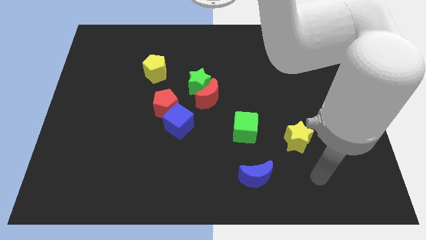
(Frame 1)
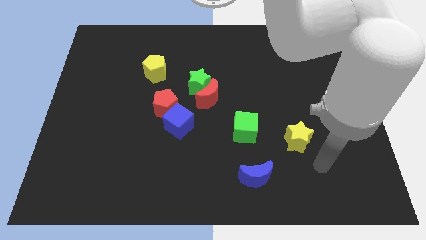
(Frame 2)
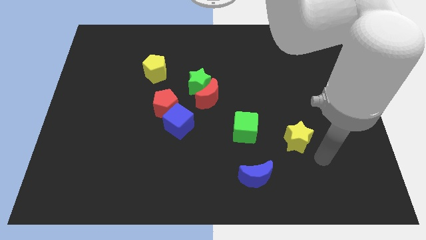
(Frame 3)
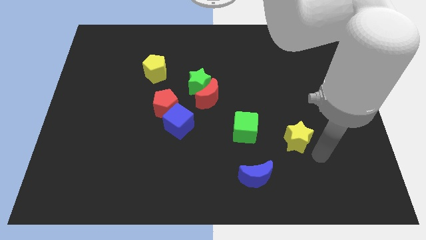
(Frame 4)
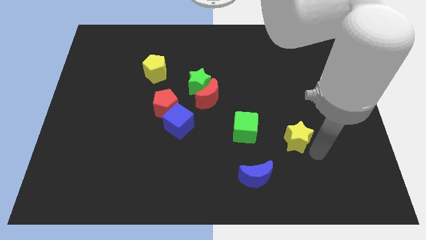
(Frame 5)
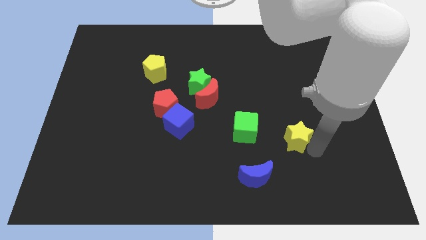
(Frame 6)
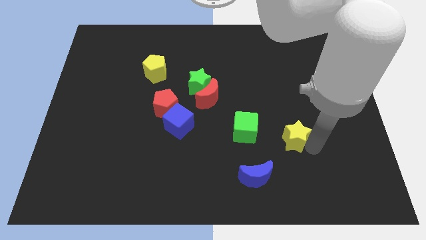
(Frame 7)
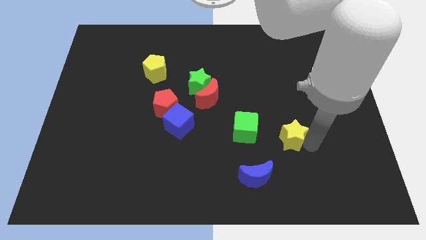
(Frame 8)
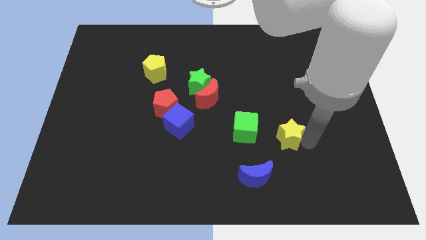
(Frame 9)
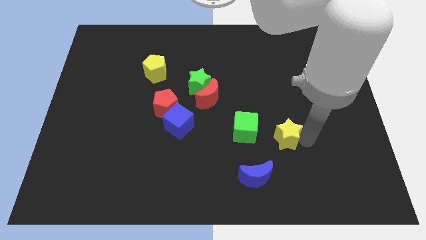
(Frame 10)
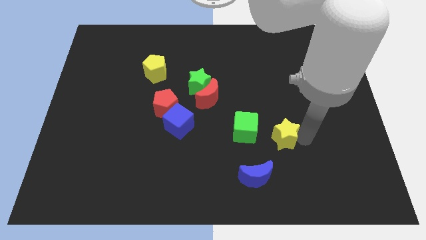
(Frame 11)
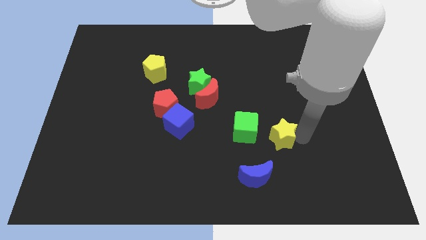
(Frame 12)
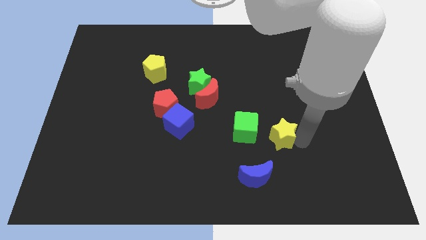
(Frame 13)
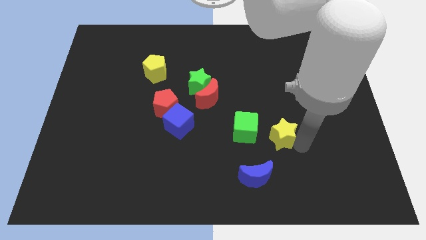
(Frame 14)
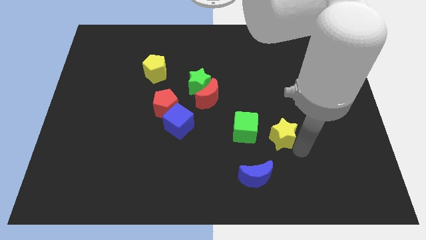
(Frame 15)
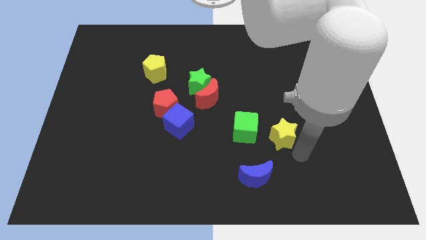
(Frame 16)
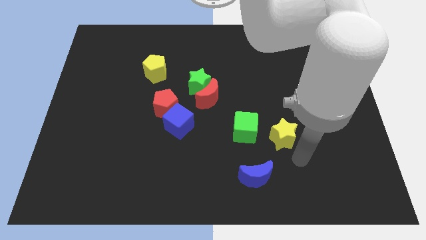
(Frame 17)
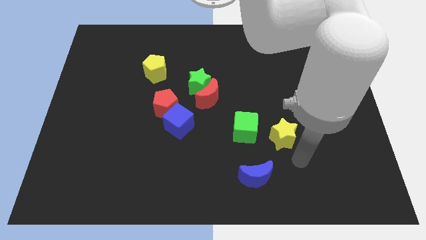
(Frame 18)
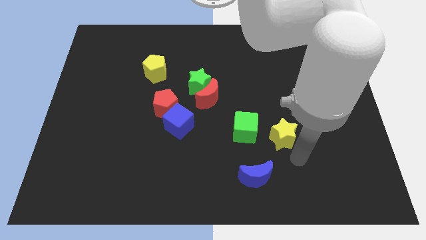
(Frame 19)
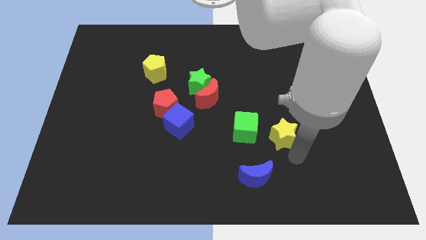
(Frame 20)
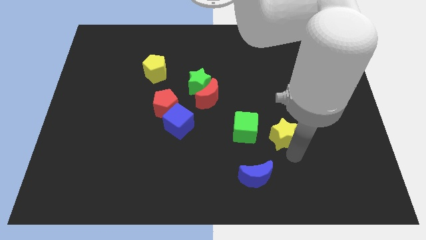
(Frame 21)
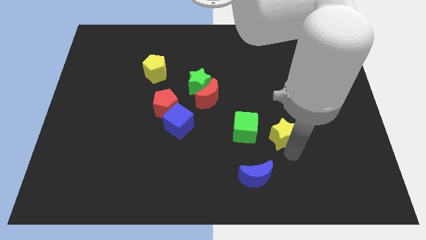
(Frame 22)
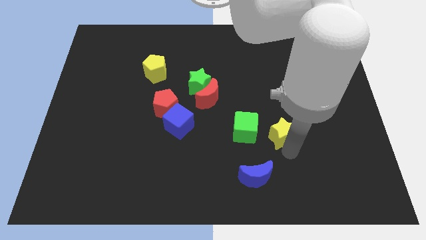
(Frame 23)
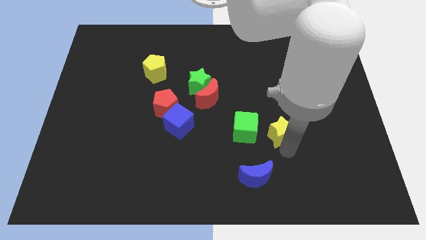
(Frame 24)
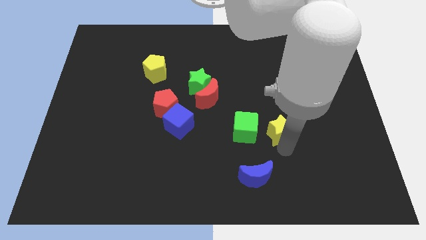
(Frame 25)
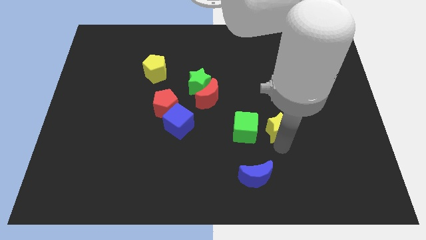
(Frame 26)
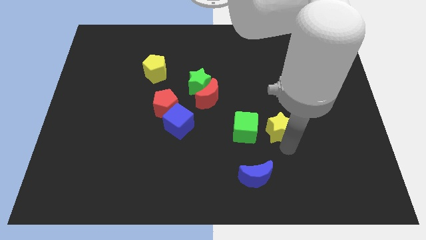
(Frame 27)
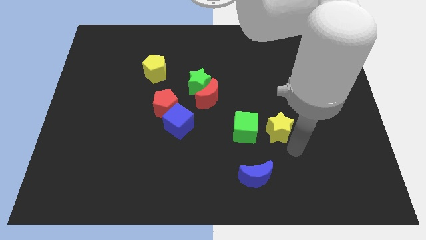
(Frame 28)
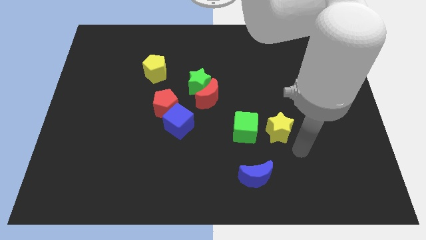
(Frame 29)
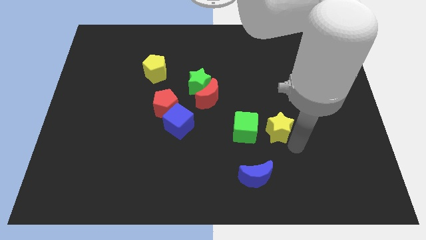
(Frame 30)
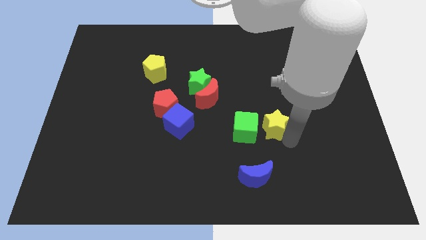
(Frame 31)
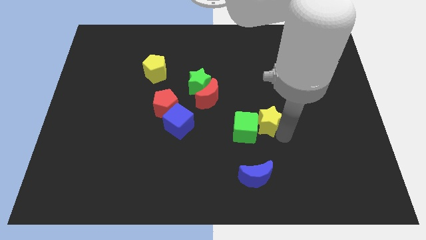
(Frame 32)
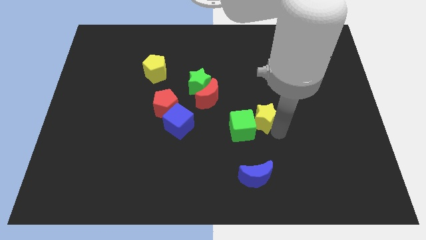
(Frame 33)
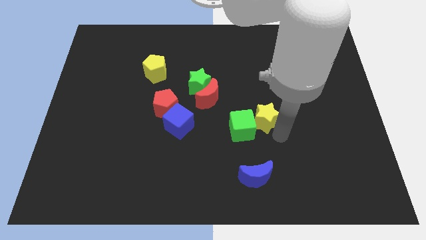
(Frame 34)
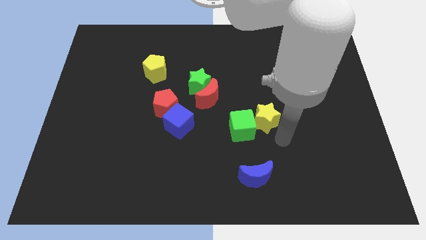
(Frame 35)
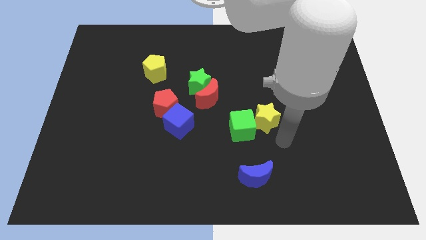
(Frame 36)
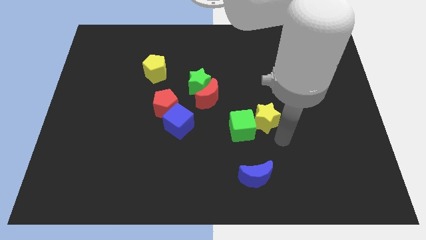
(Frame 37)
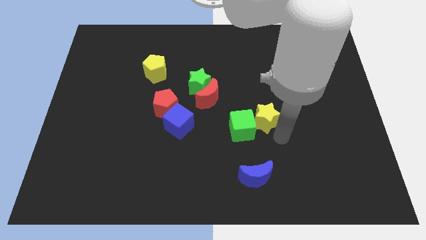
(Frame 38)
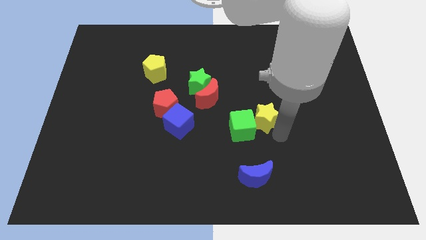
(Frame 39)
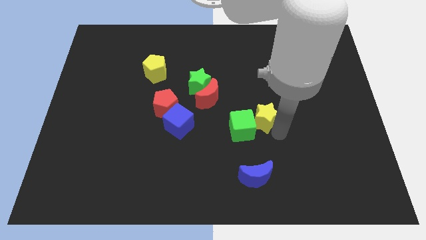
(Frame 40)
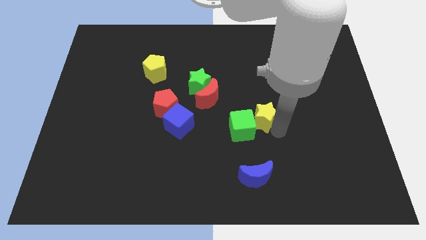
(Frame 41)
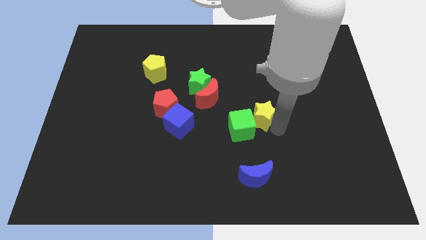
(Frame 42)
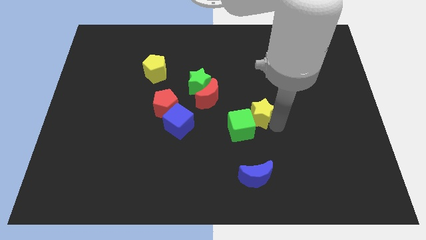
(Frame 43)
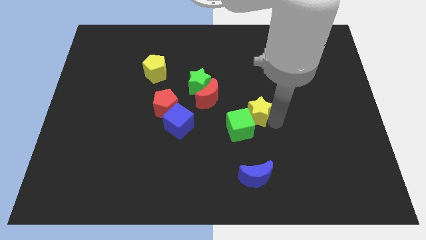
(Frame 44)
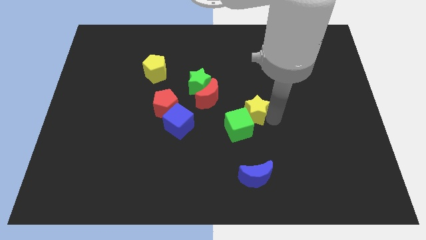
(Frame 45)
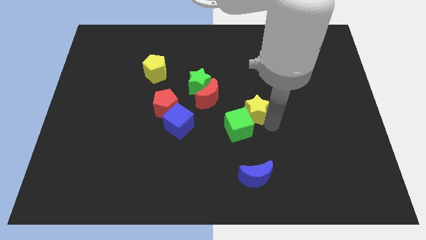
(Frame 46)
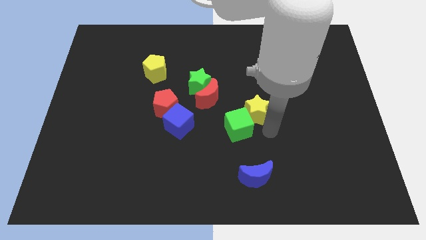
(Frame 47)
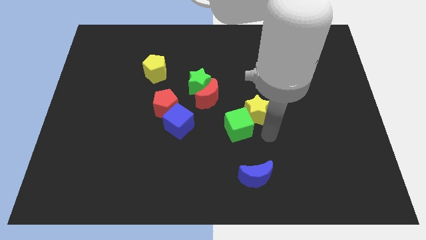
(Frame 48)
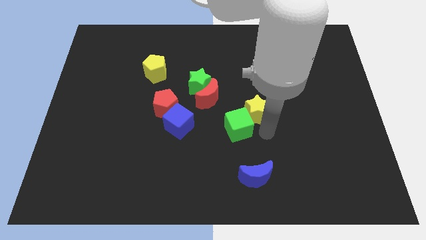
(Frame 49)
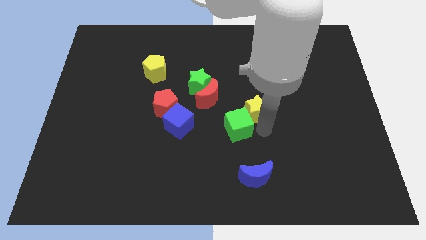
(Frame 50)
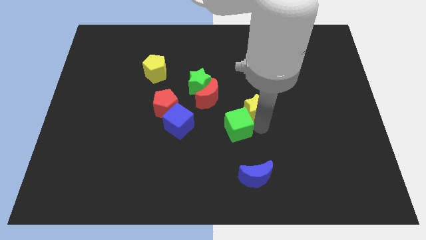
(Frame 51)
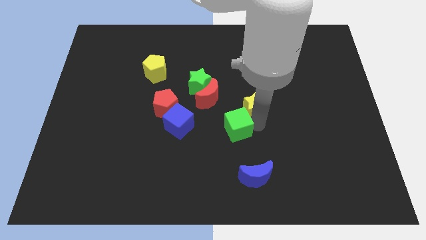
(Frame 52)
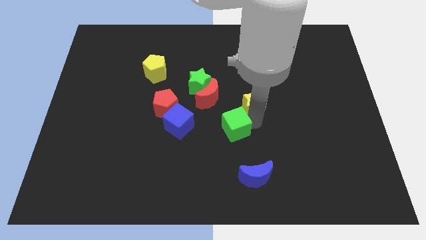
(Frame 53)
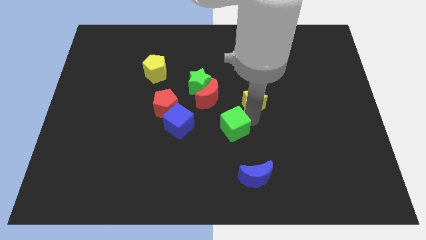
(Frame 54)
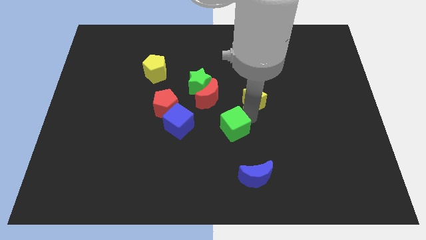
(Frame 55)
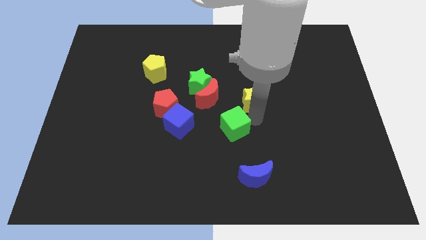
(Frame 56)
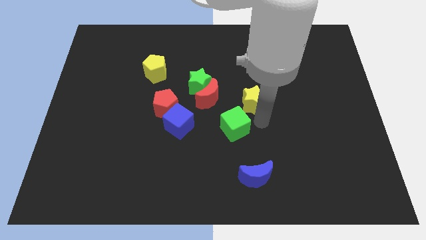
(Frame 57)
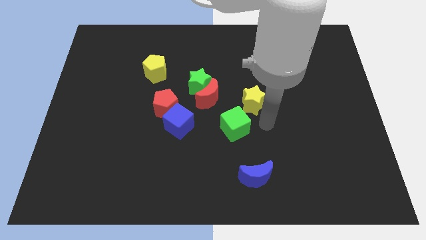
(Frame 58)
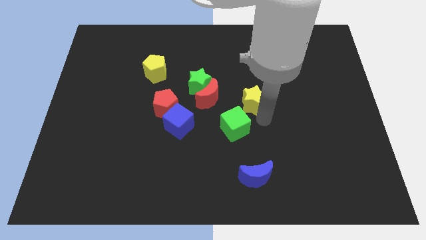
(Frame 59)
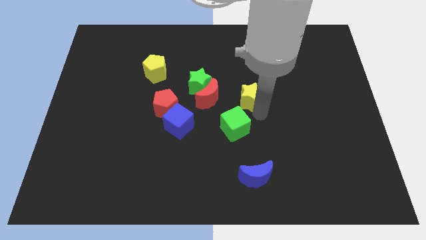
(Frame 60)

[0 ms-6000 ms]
slide the yellow star to the right side of the green star

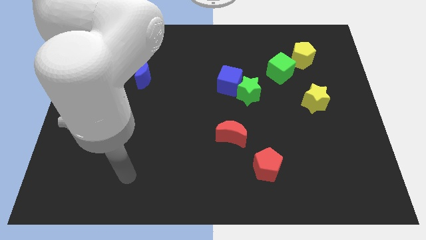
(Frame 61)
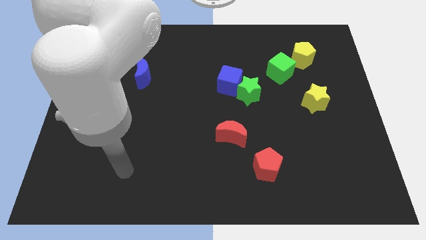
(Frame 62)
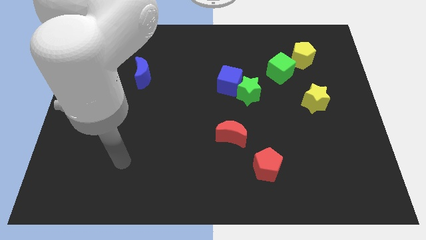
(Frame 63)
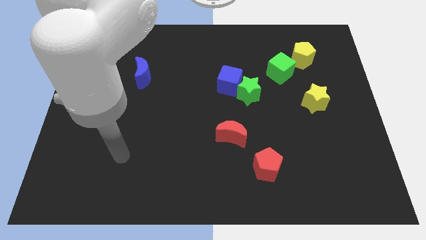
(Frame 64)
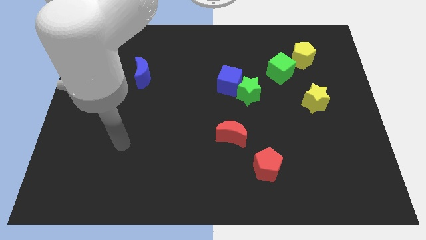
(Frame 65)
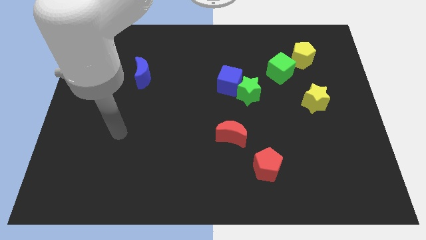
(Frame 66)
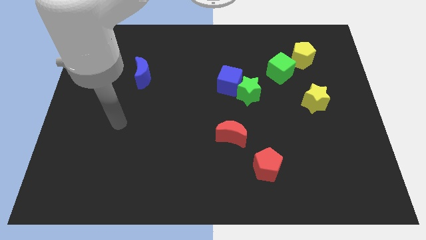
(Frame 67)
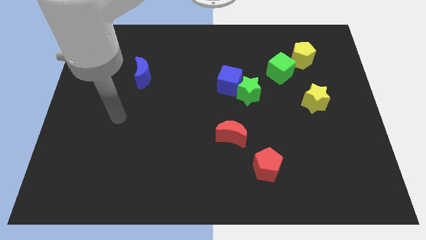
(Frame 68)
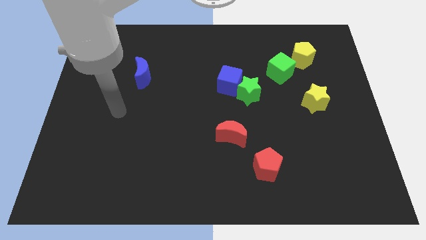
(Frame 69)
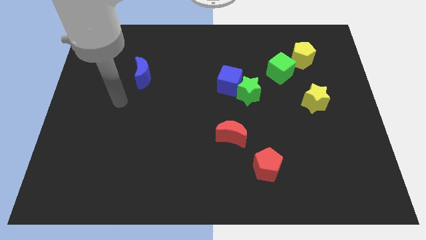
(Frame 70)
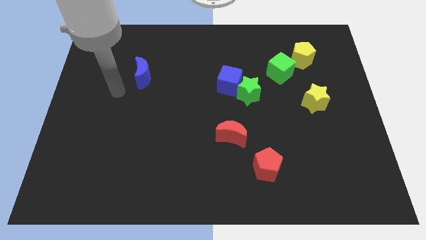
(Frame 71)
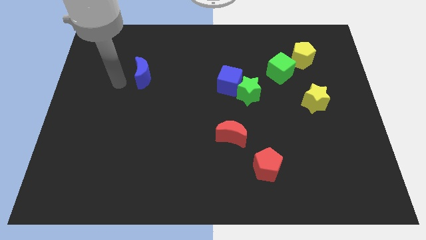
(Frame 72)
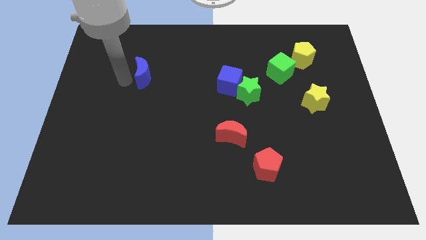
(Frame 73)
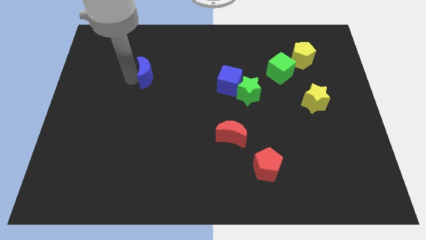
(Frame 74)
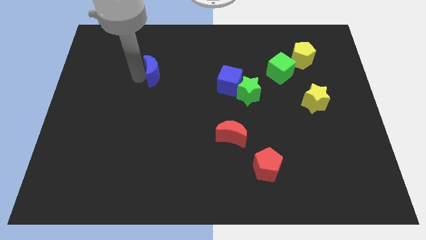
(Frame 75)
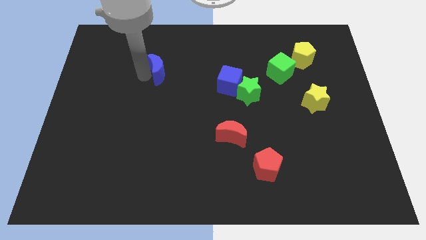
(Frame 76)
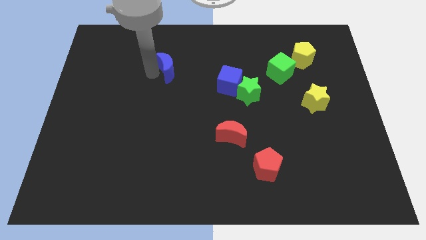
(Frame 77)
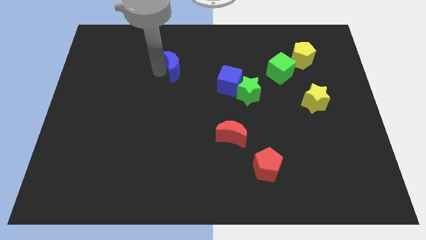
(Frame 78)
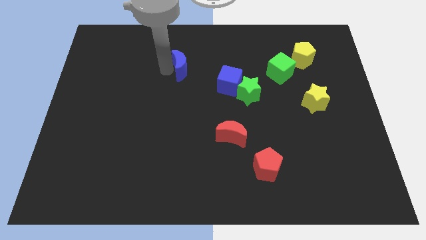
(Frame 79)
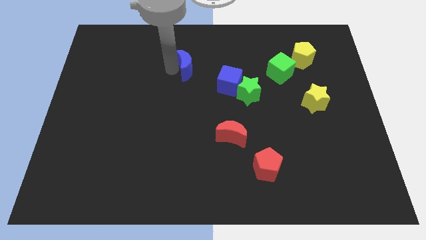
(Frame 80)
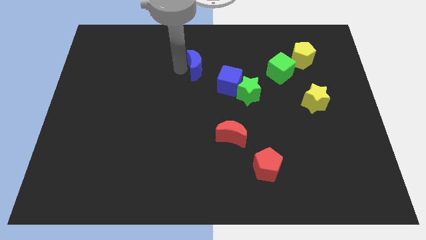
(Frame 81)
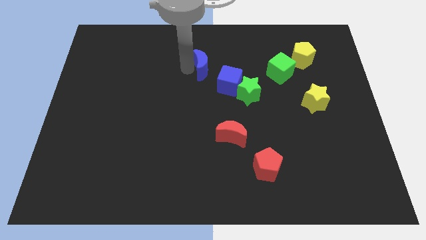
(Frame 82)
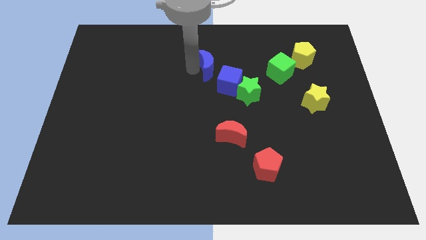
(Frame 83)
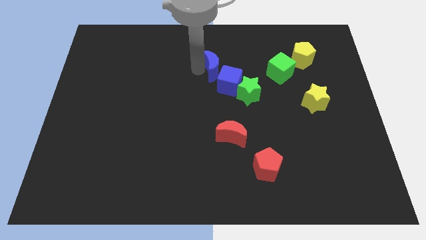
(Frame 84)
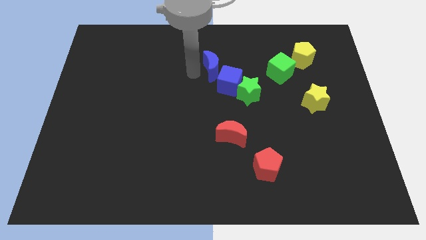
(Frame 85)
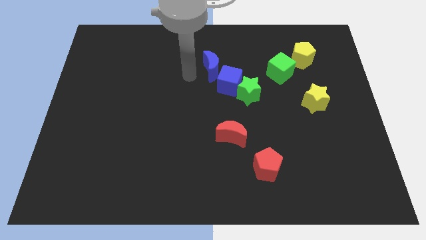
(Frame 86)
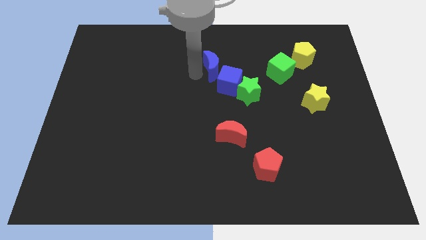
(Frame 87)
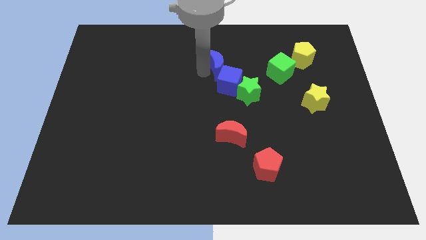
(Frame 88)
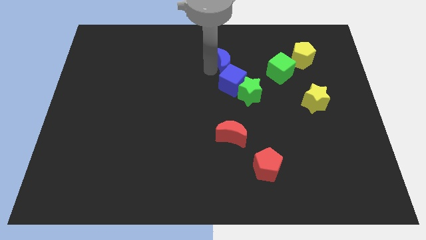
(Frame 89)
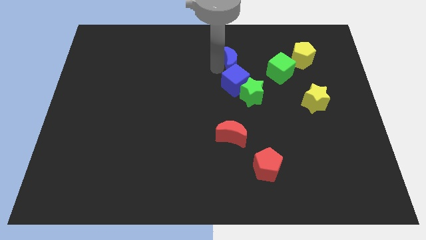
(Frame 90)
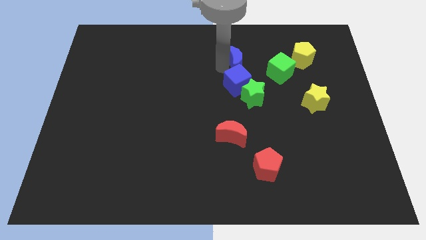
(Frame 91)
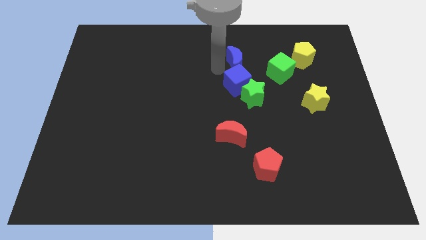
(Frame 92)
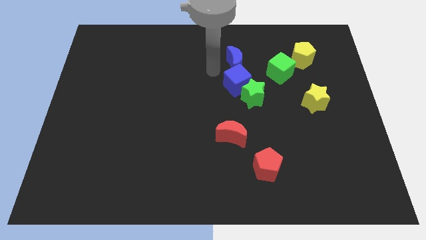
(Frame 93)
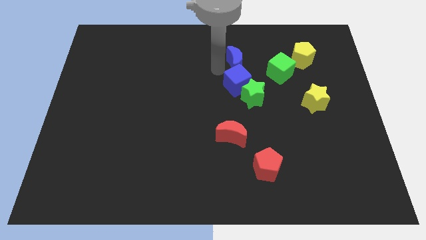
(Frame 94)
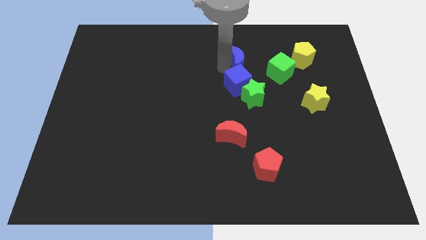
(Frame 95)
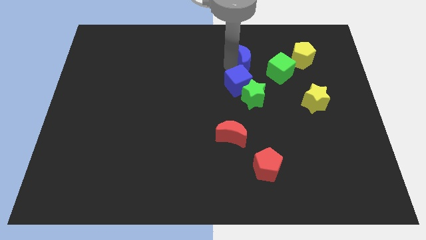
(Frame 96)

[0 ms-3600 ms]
put the blue moon diagonally up and to the left of the green cube
